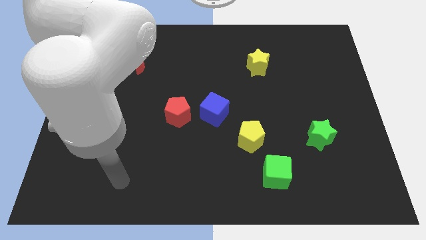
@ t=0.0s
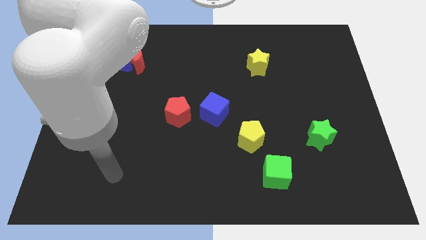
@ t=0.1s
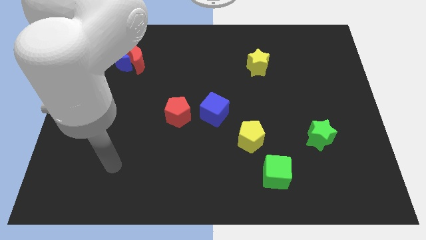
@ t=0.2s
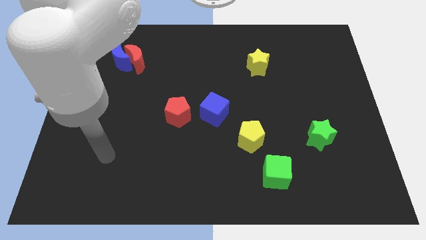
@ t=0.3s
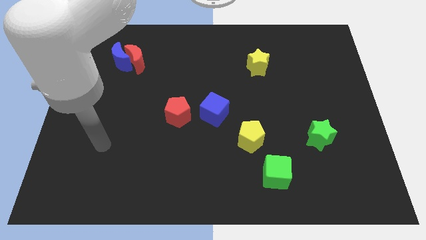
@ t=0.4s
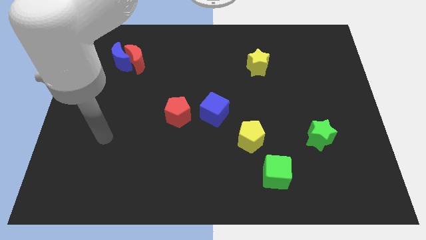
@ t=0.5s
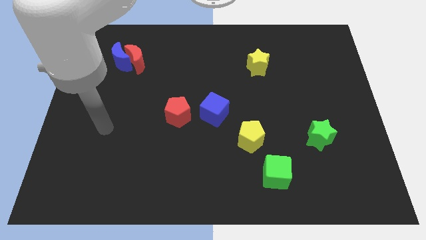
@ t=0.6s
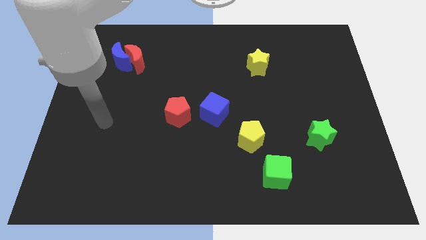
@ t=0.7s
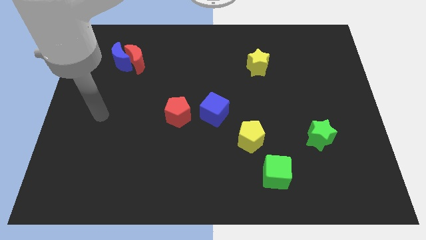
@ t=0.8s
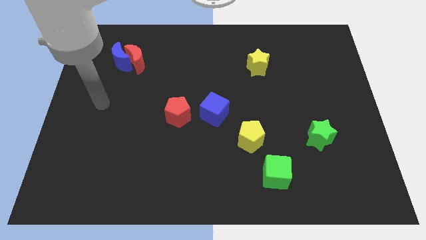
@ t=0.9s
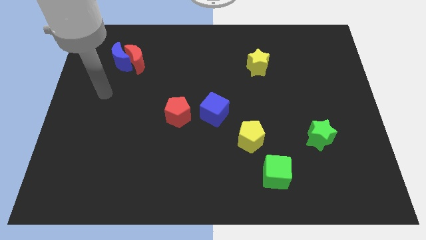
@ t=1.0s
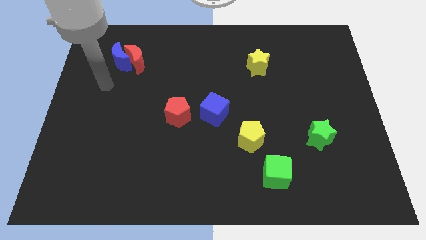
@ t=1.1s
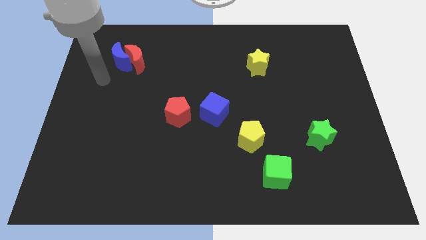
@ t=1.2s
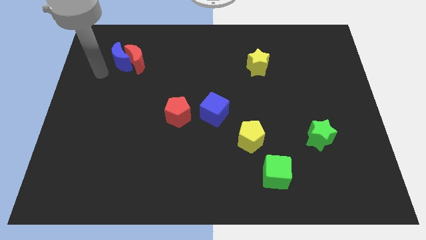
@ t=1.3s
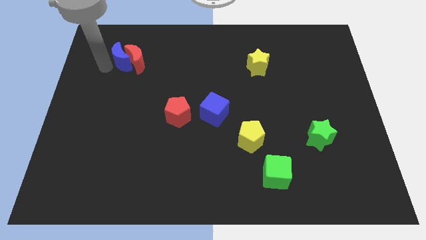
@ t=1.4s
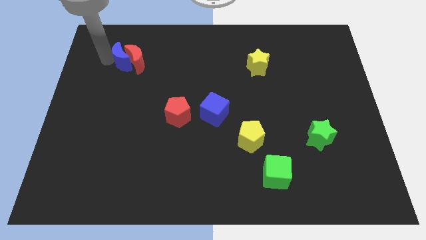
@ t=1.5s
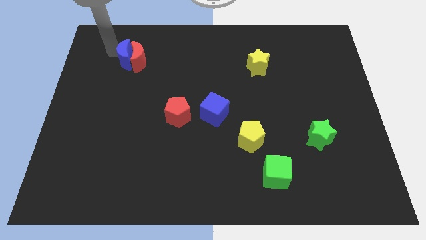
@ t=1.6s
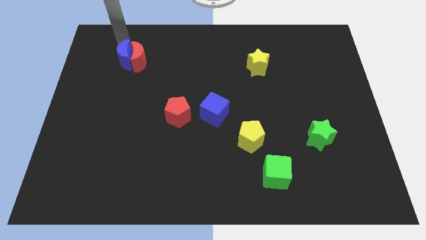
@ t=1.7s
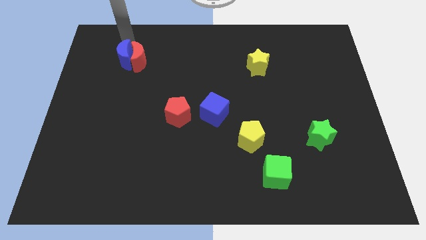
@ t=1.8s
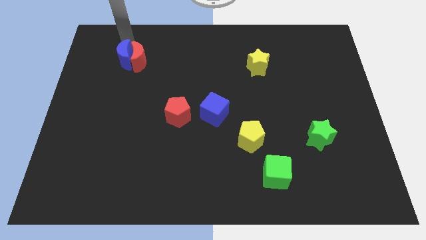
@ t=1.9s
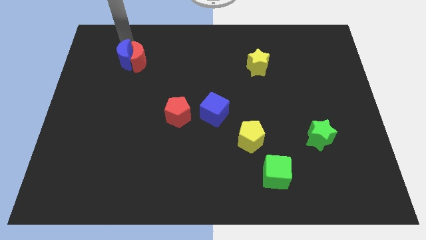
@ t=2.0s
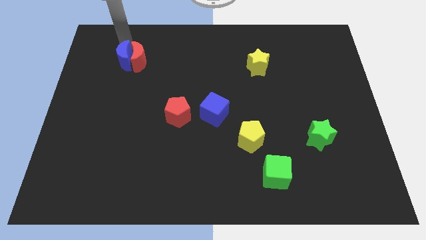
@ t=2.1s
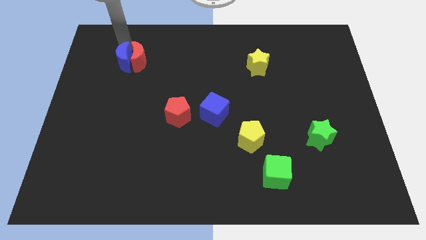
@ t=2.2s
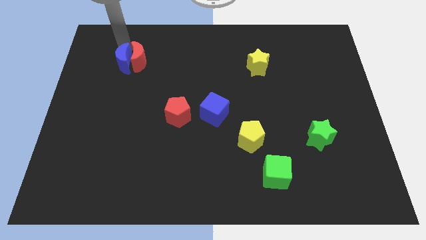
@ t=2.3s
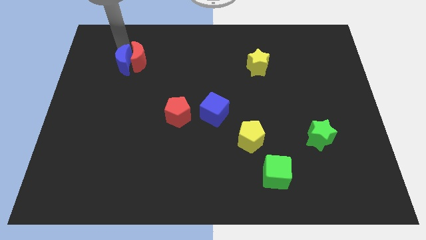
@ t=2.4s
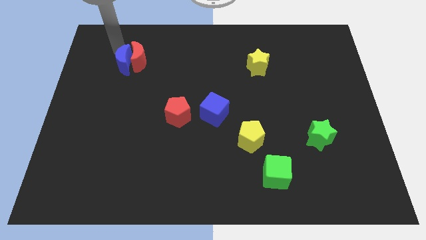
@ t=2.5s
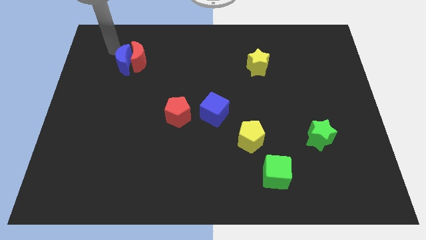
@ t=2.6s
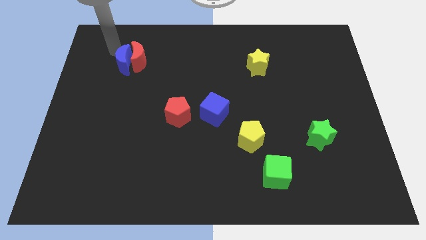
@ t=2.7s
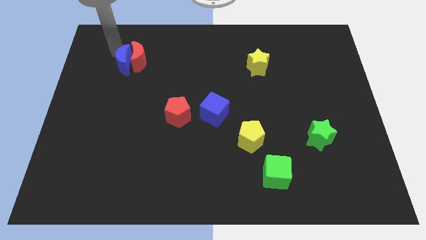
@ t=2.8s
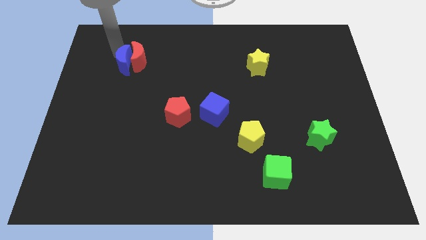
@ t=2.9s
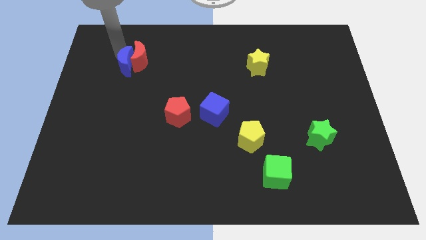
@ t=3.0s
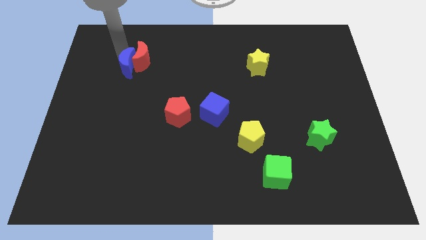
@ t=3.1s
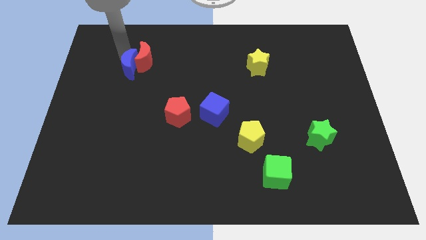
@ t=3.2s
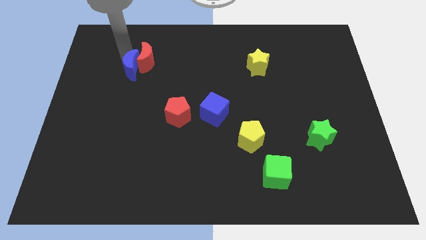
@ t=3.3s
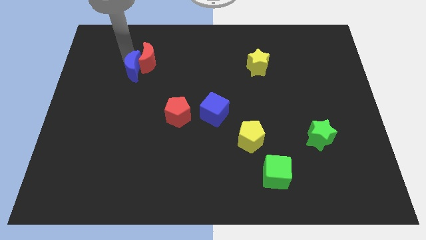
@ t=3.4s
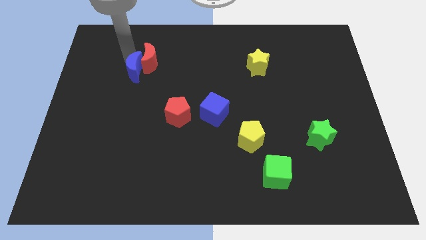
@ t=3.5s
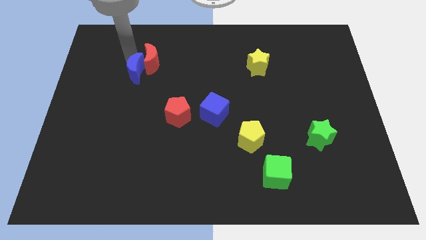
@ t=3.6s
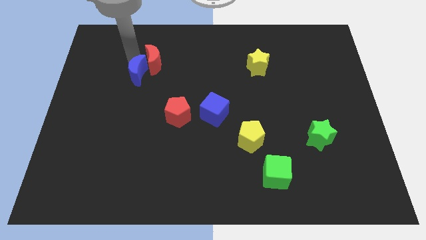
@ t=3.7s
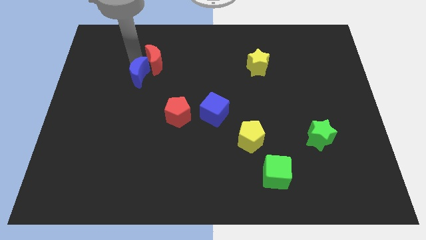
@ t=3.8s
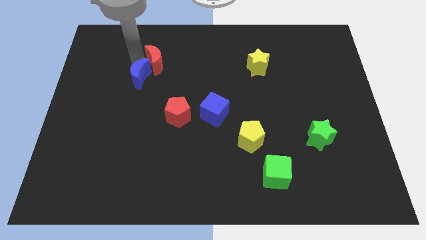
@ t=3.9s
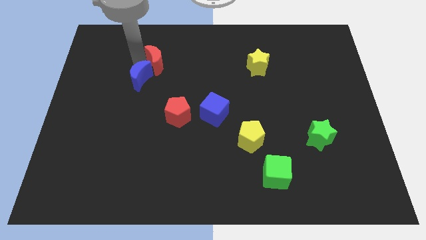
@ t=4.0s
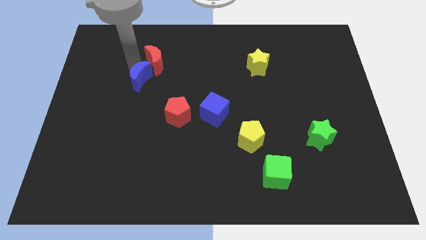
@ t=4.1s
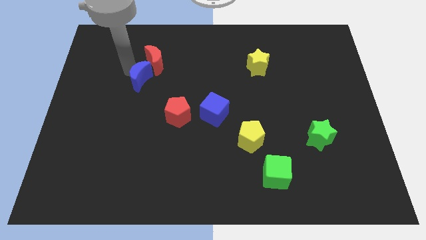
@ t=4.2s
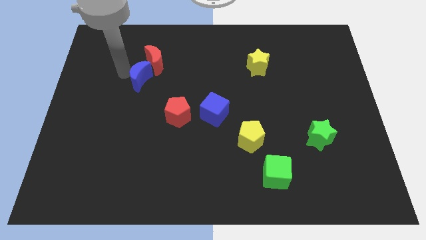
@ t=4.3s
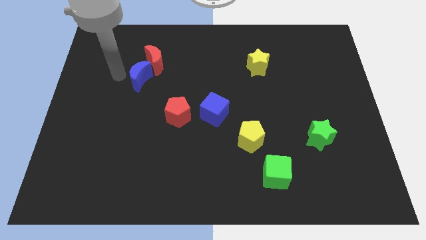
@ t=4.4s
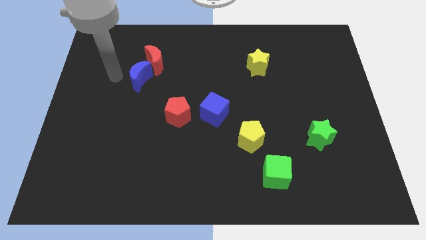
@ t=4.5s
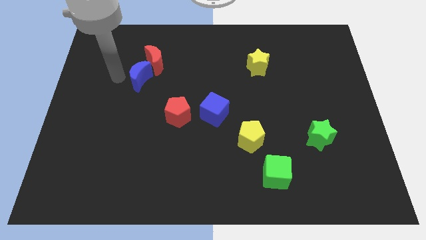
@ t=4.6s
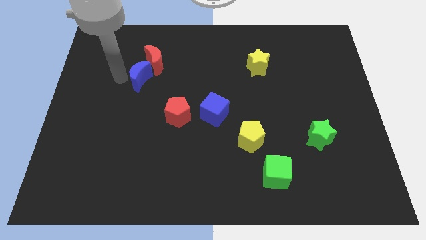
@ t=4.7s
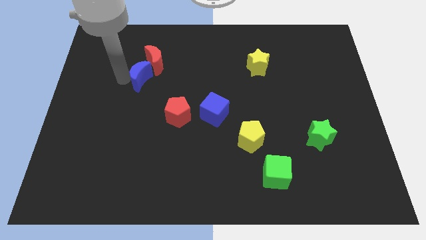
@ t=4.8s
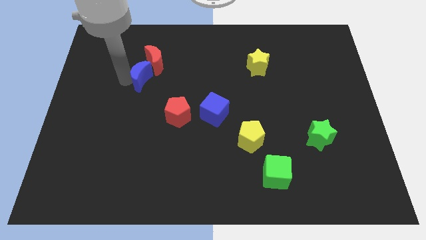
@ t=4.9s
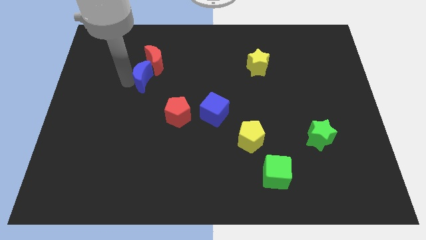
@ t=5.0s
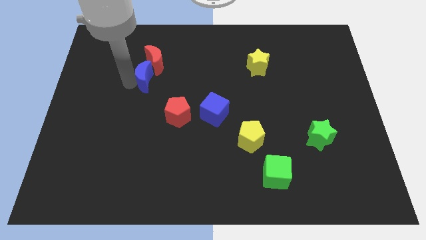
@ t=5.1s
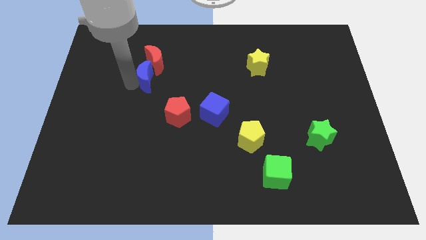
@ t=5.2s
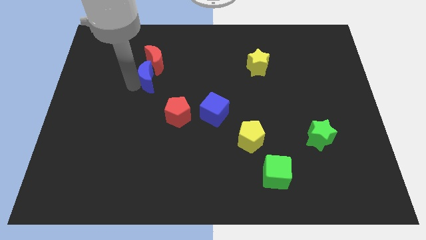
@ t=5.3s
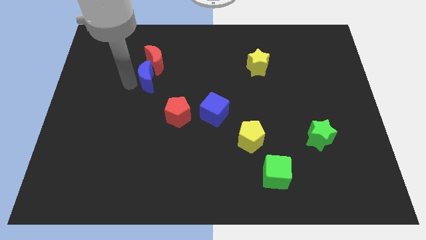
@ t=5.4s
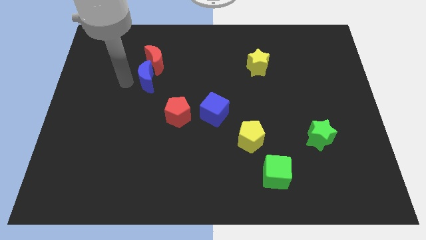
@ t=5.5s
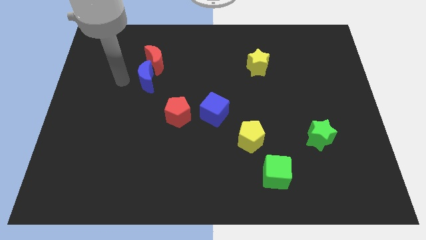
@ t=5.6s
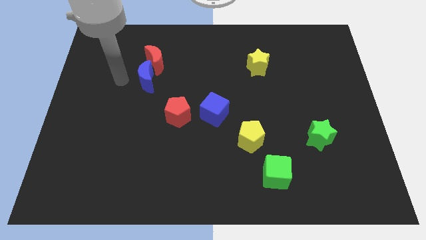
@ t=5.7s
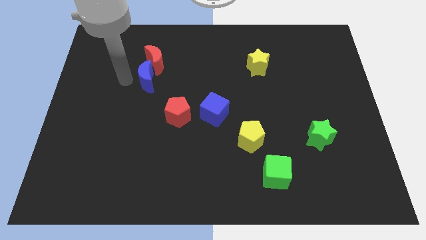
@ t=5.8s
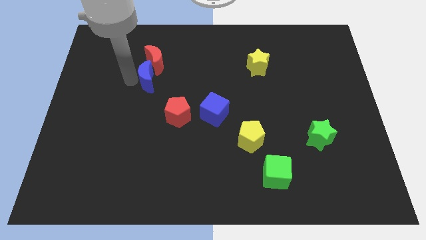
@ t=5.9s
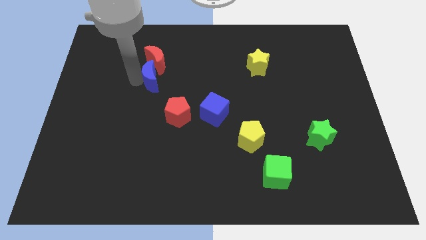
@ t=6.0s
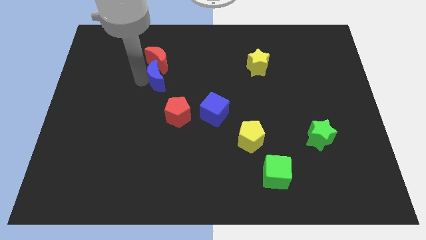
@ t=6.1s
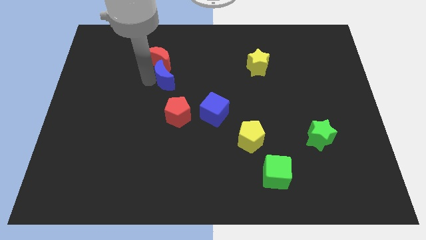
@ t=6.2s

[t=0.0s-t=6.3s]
slide the blue moon to the top side of the red pentagon
